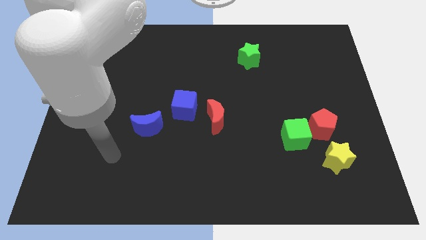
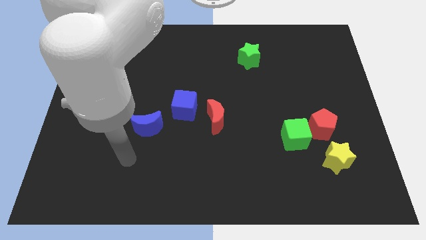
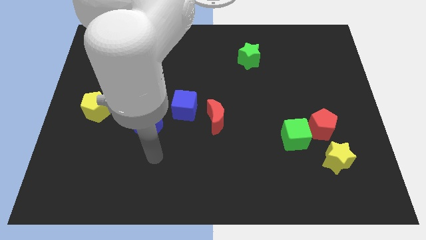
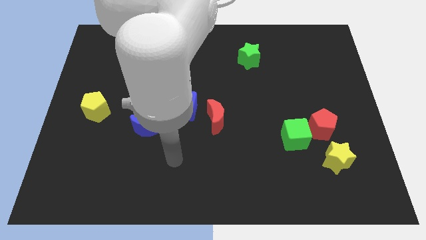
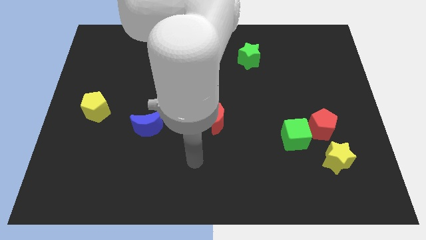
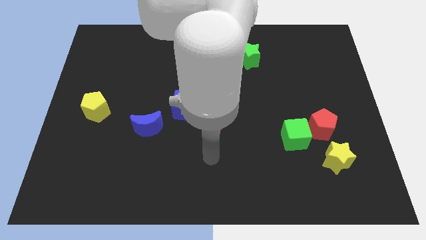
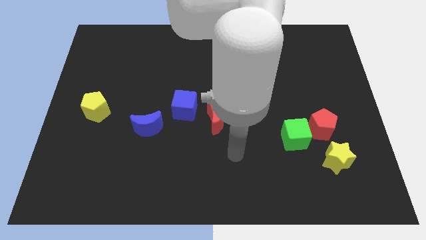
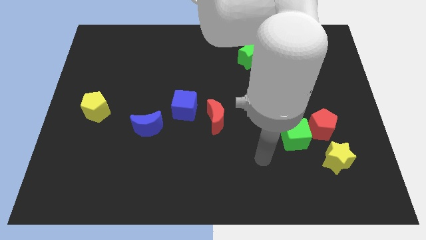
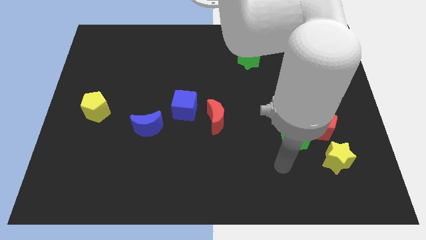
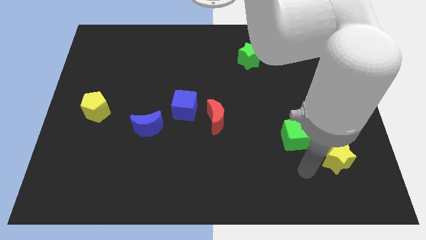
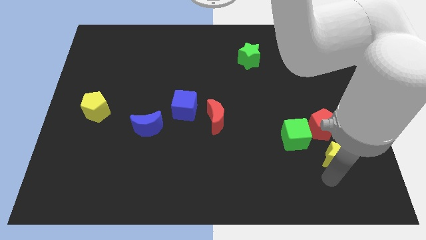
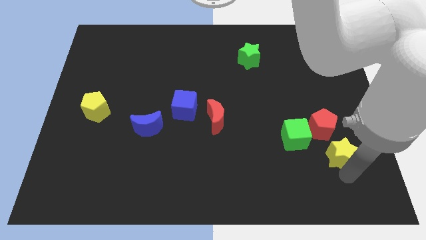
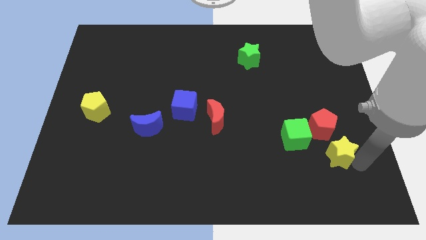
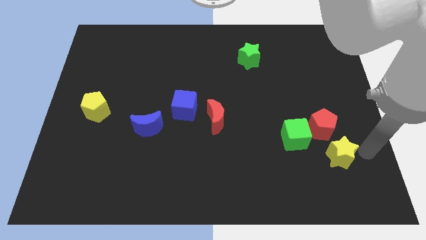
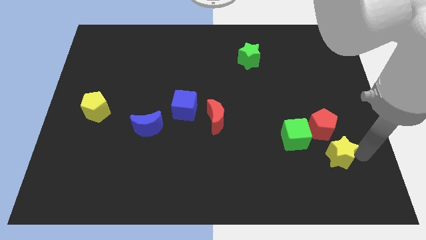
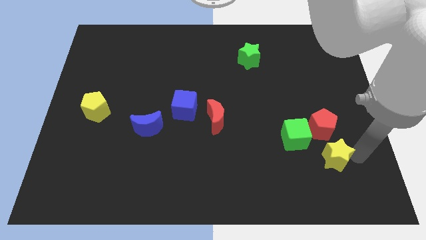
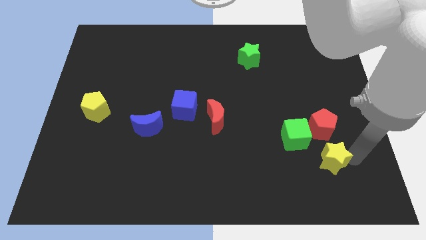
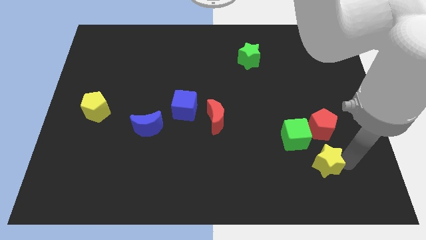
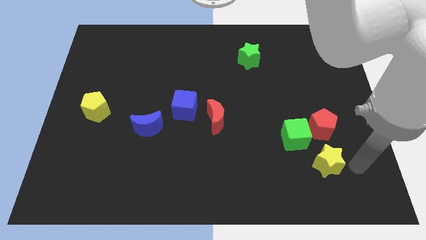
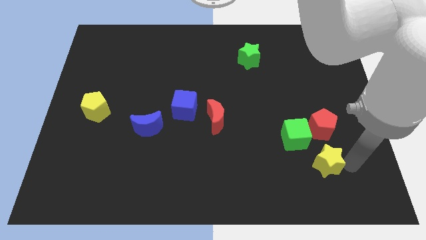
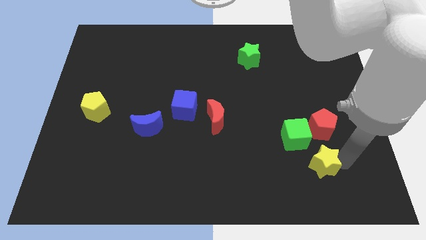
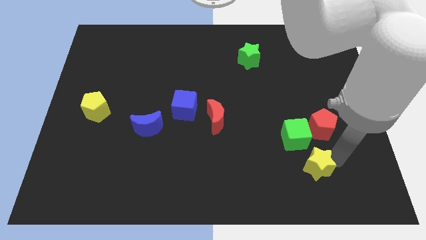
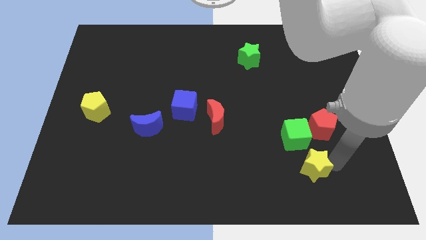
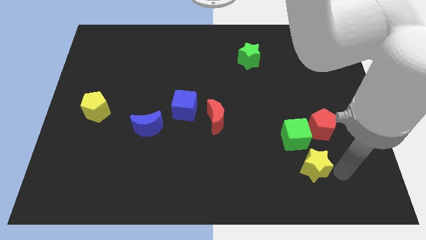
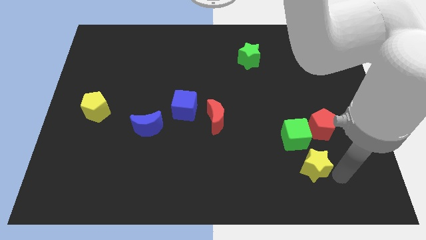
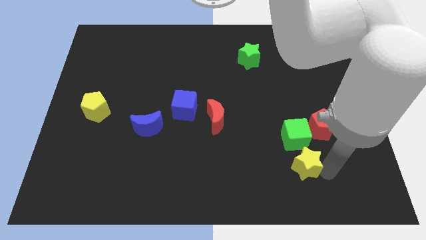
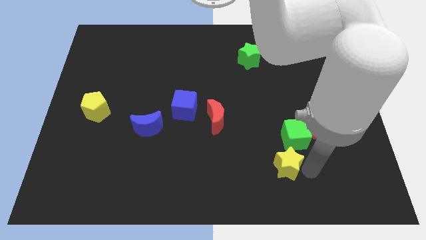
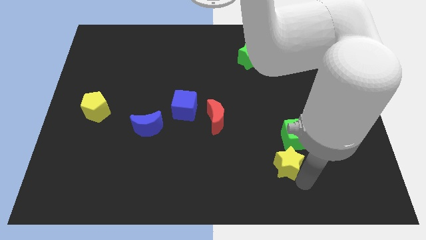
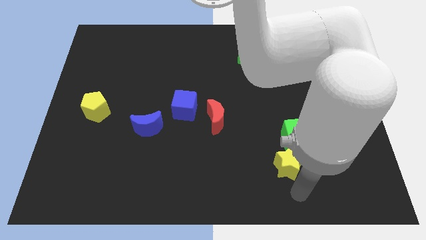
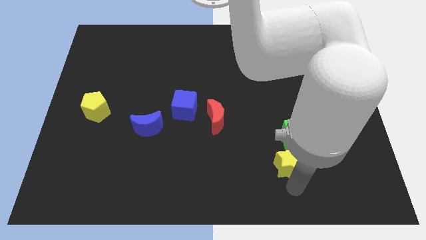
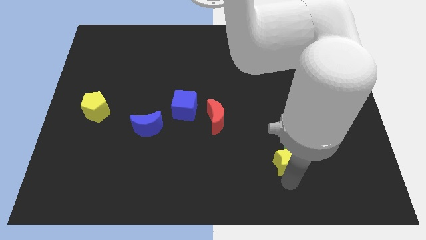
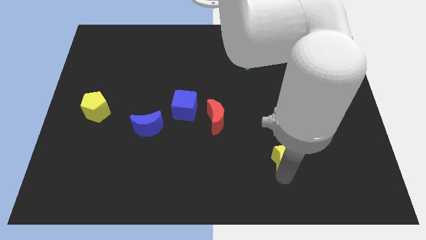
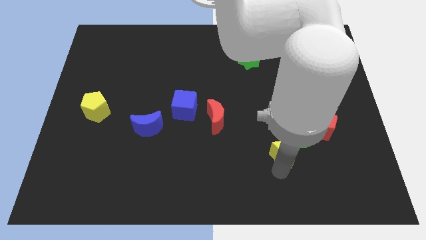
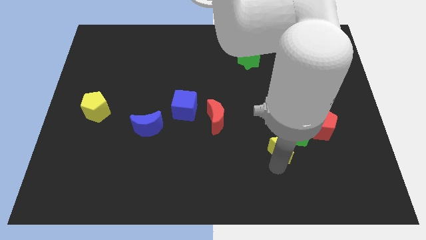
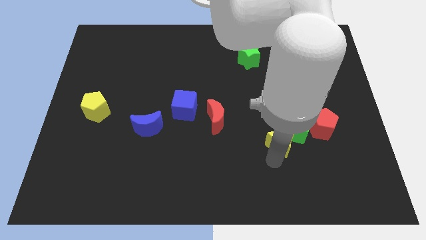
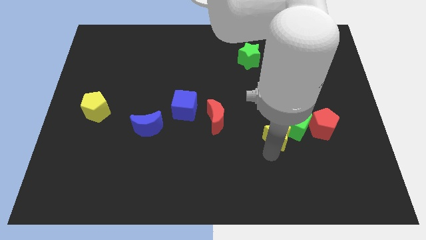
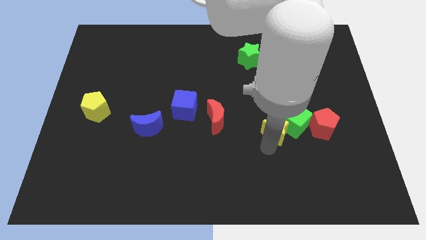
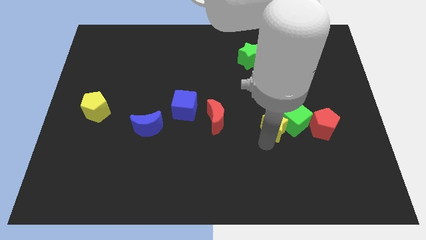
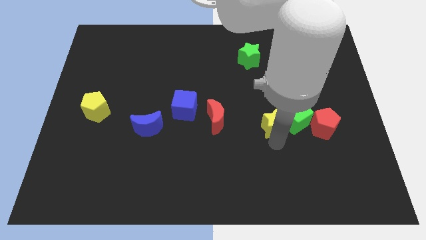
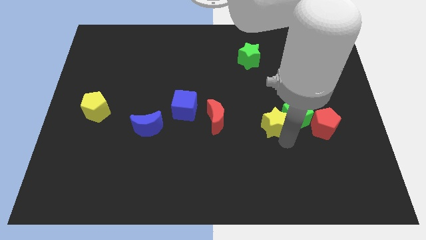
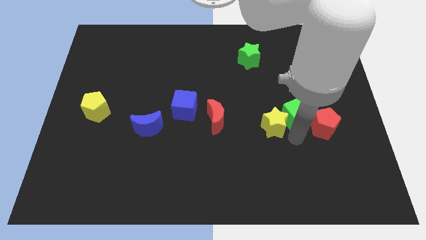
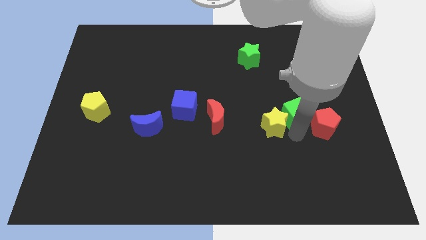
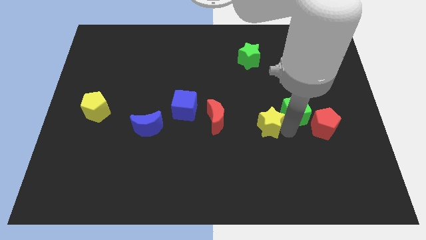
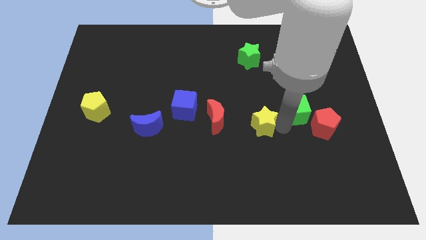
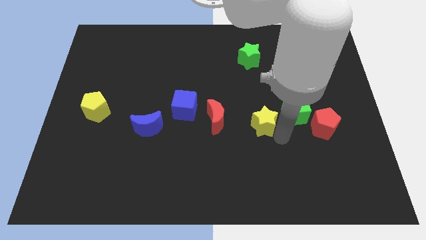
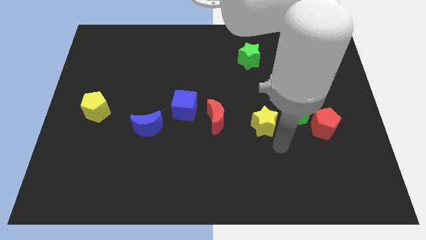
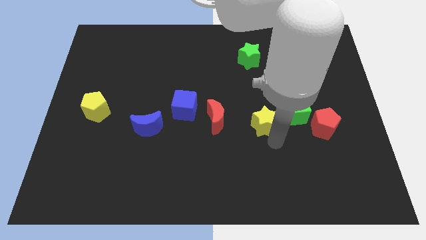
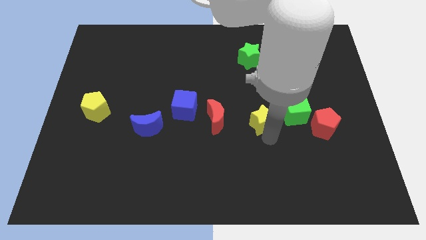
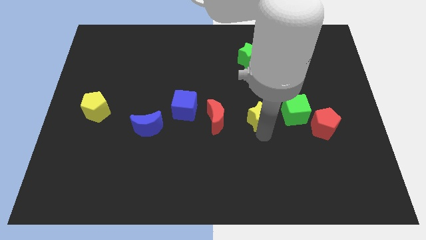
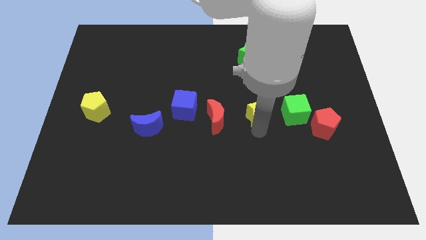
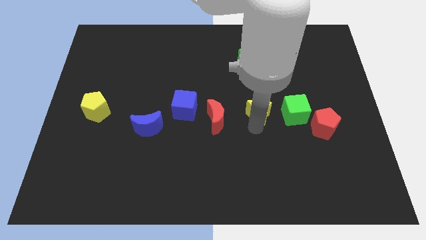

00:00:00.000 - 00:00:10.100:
push the yellow star diagonally up and to the left

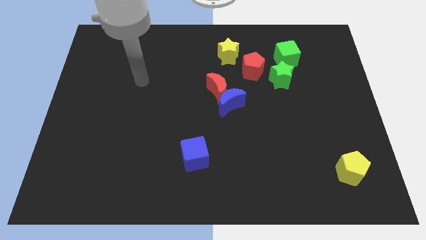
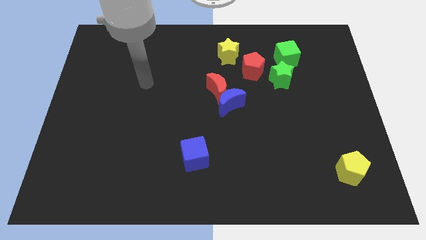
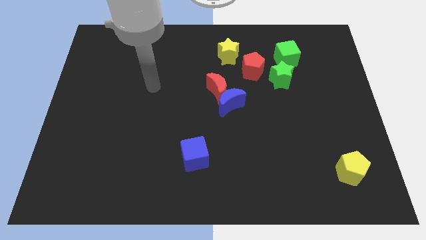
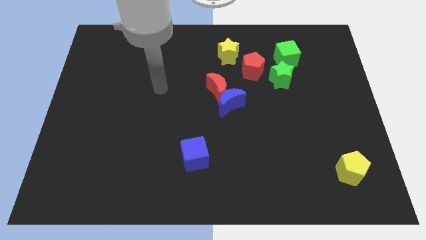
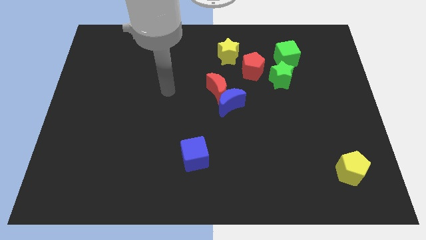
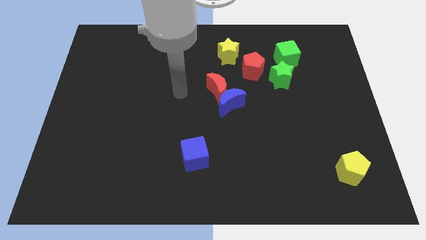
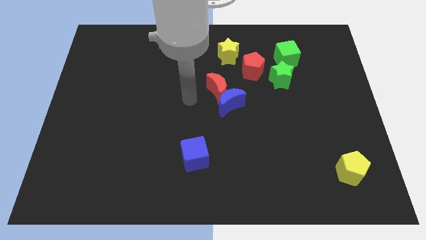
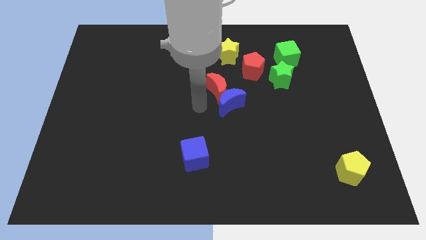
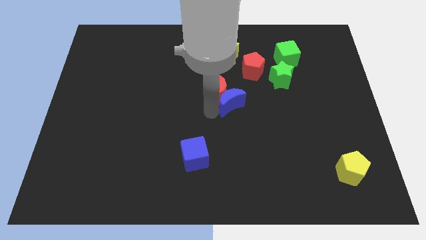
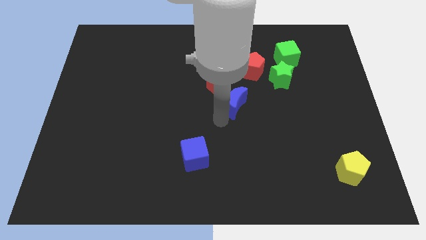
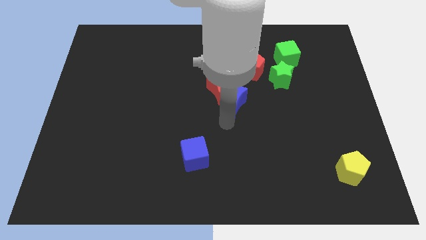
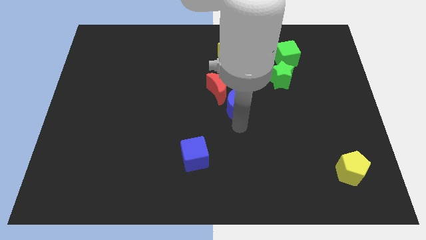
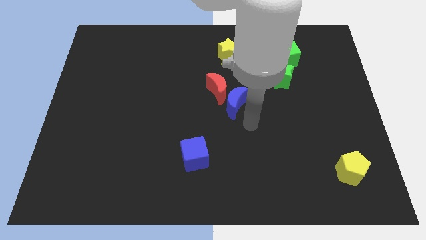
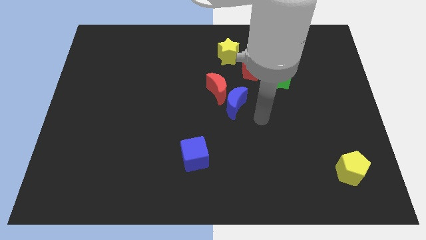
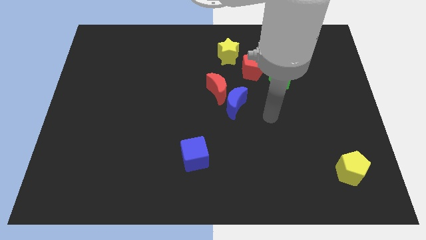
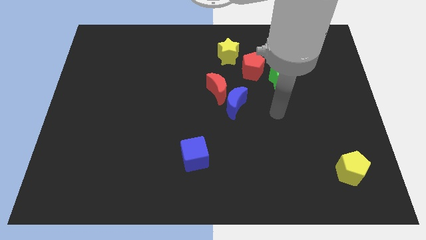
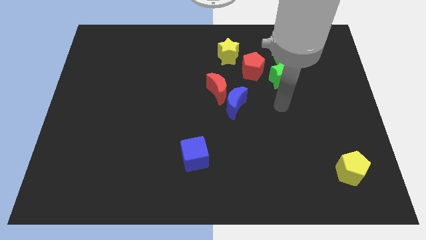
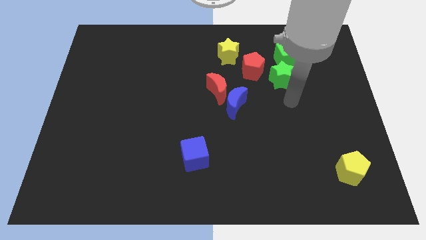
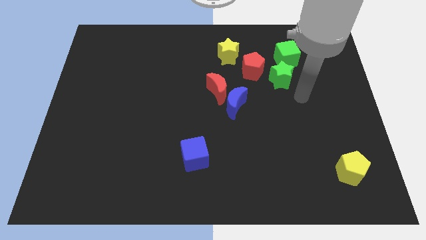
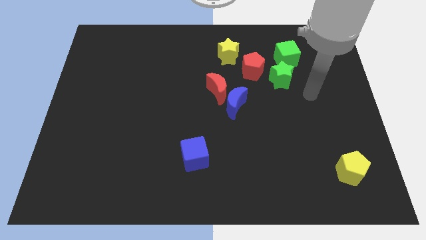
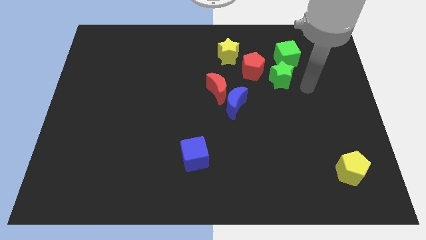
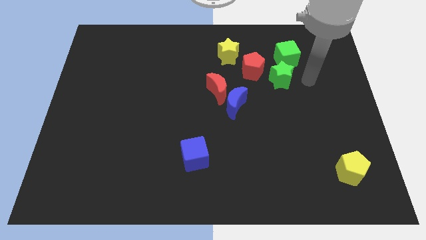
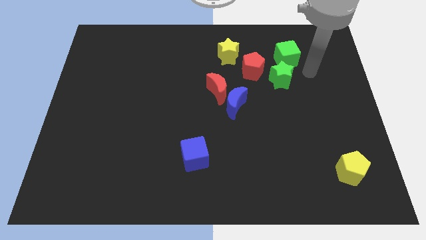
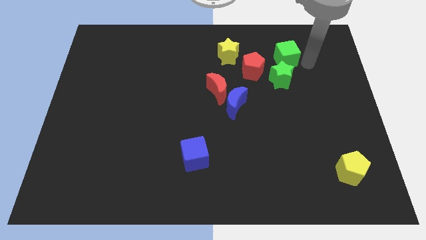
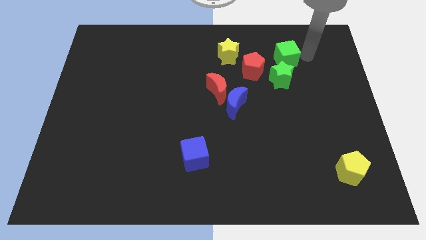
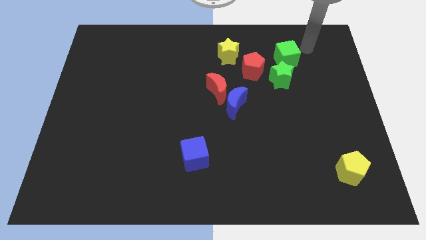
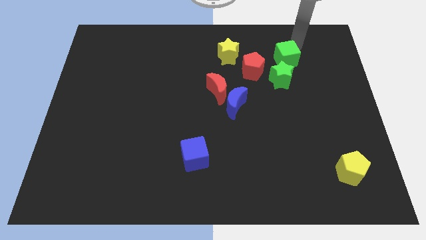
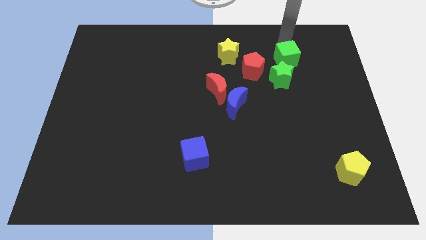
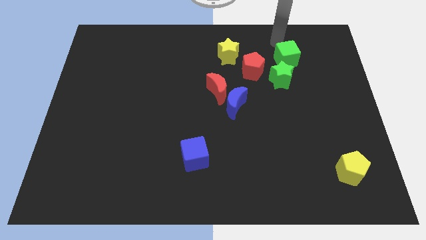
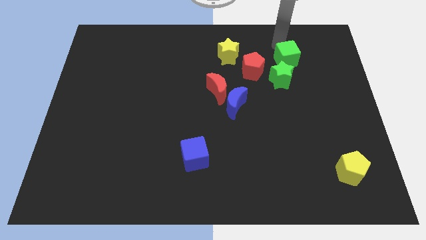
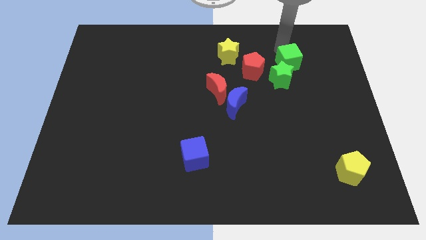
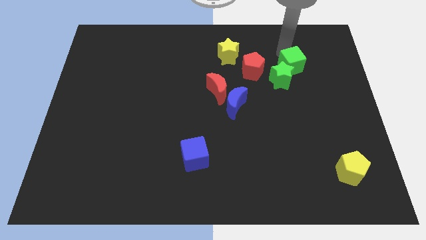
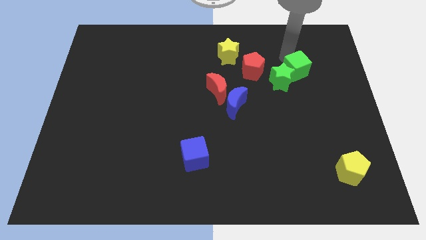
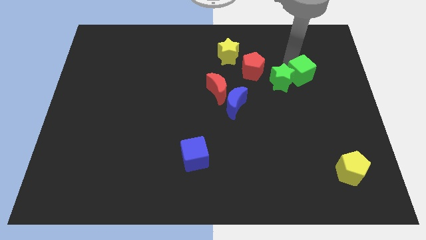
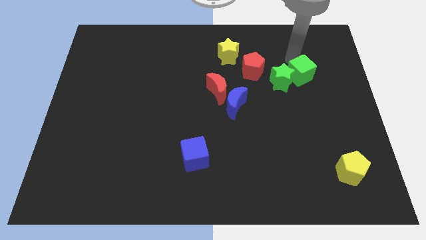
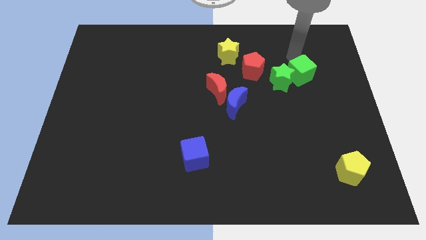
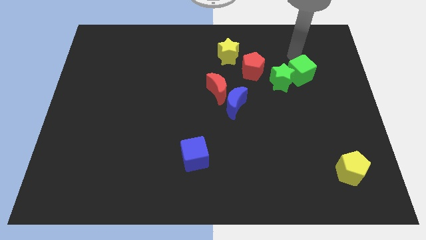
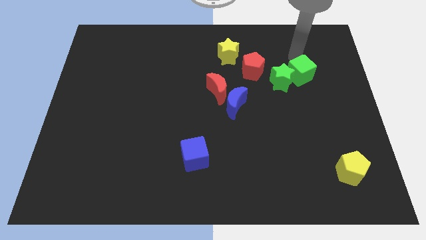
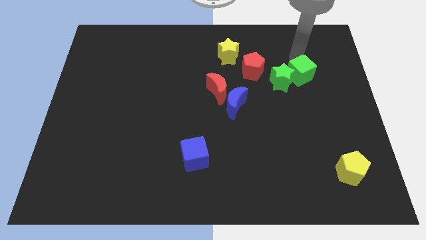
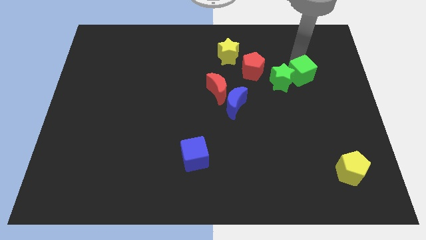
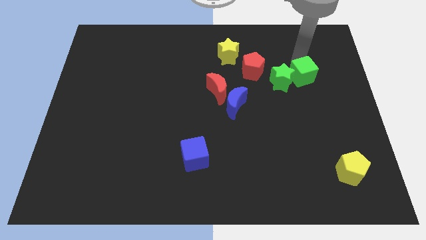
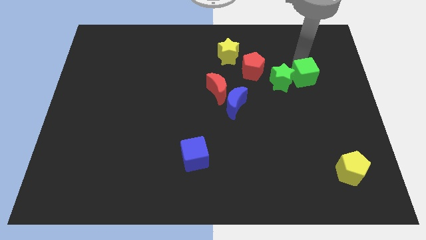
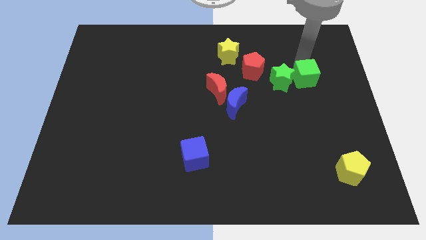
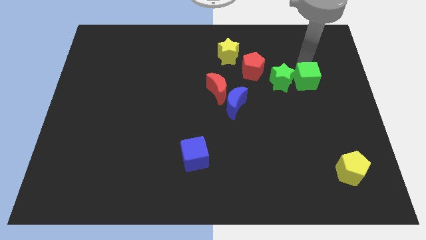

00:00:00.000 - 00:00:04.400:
push the green cube down somewhat
